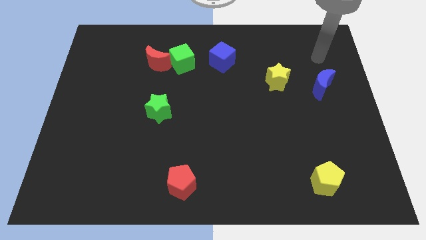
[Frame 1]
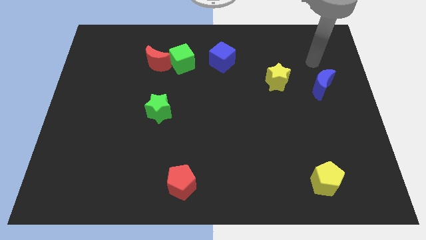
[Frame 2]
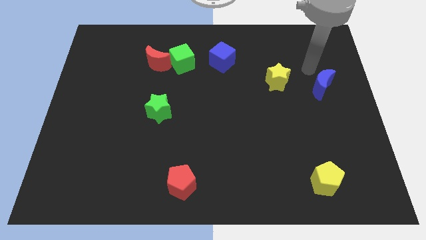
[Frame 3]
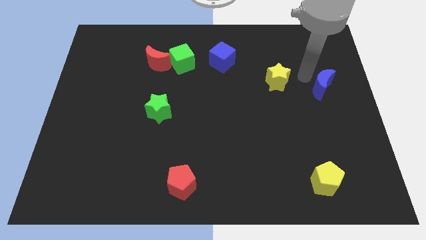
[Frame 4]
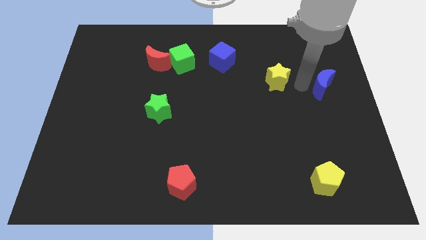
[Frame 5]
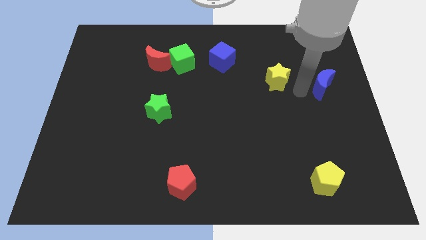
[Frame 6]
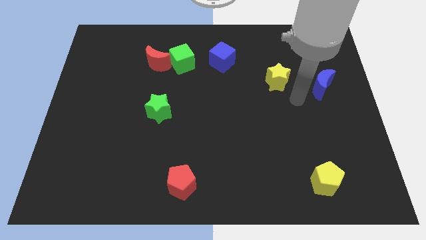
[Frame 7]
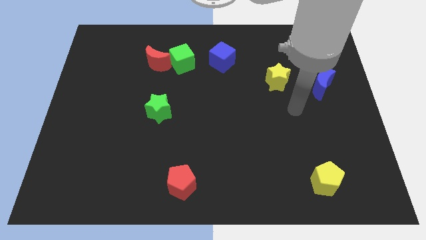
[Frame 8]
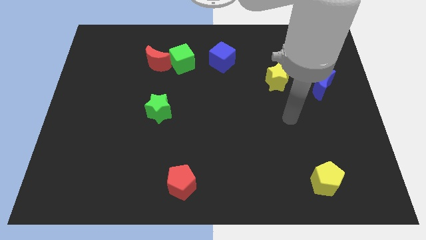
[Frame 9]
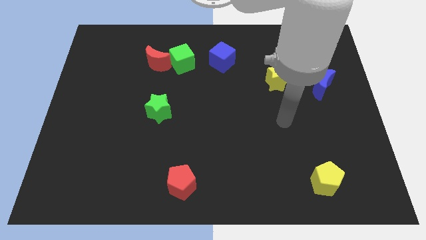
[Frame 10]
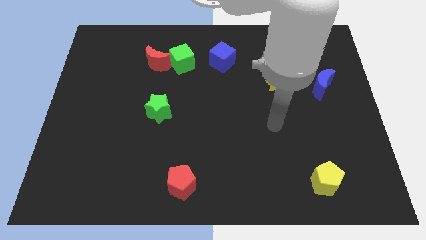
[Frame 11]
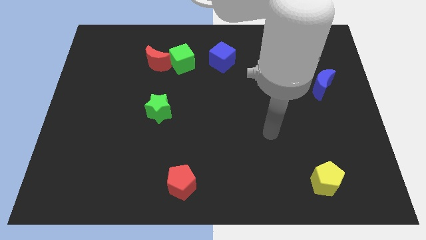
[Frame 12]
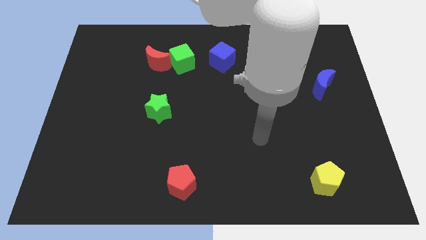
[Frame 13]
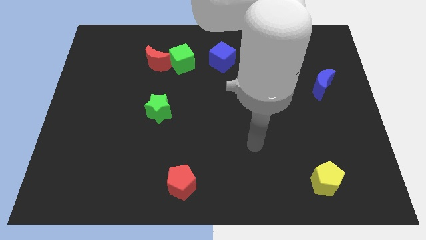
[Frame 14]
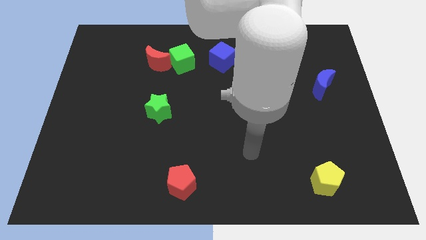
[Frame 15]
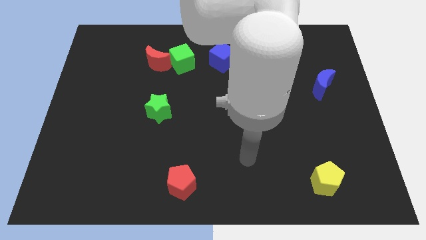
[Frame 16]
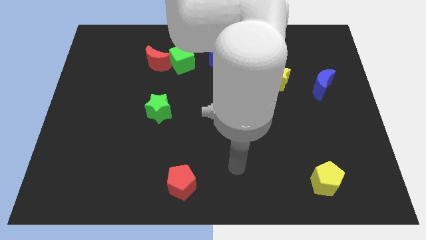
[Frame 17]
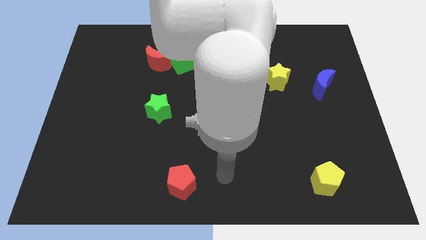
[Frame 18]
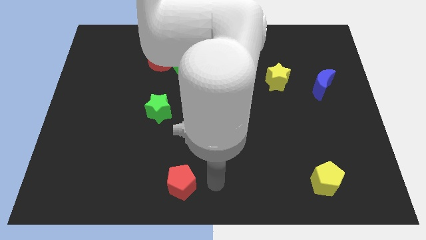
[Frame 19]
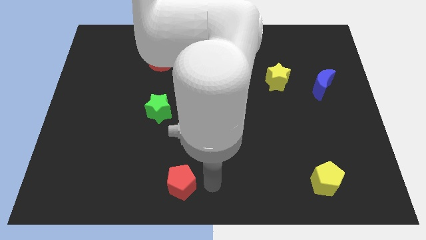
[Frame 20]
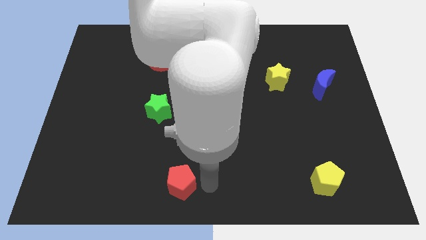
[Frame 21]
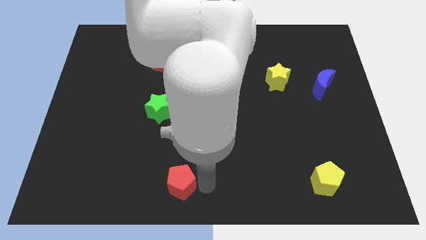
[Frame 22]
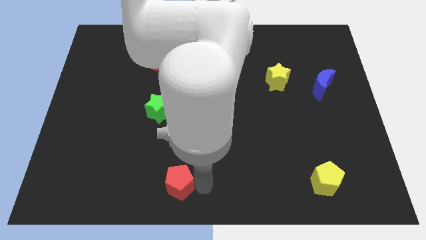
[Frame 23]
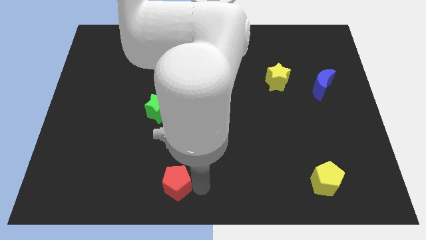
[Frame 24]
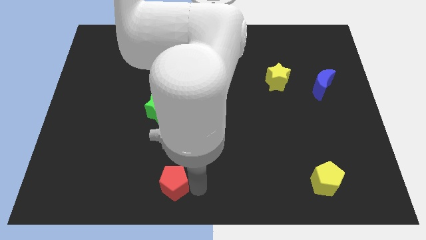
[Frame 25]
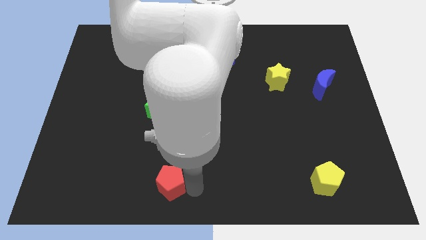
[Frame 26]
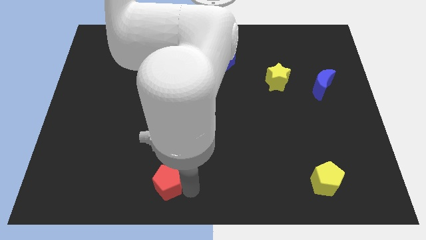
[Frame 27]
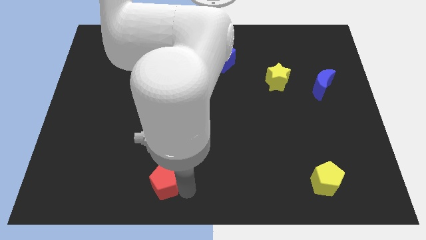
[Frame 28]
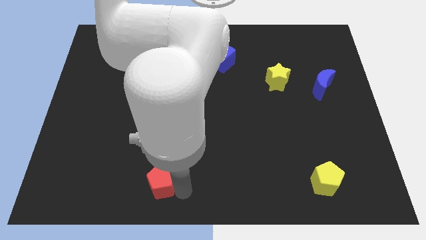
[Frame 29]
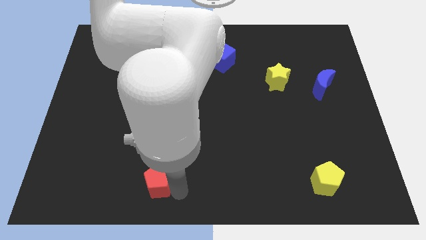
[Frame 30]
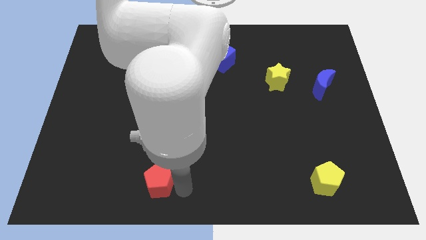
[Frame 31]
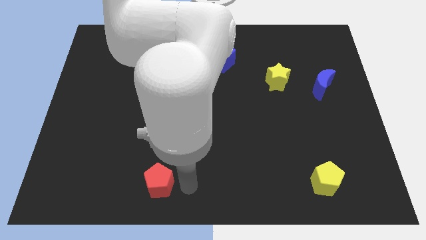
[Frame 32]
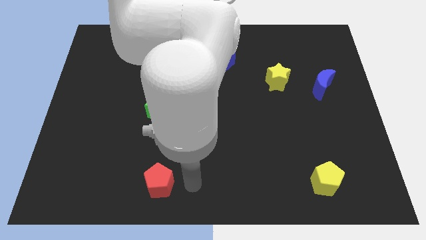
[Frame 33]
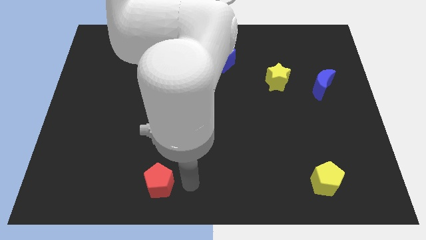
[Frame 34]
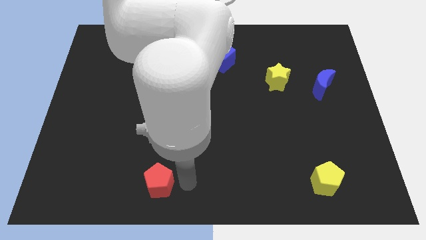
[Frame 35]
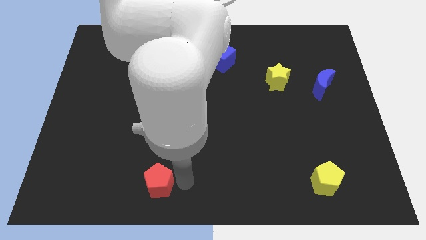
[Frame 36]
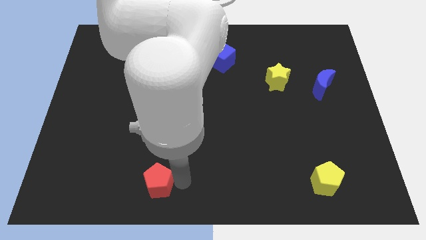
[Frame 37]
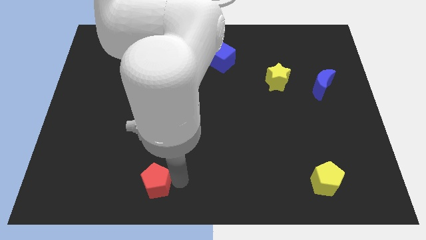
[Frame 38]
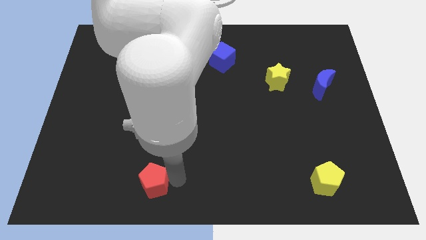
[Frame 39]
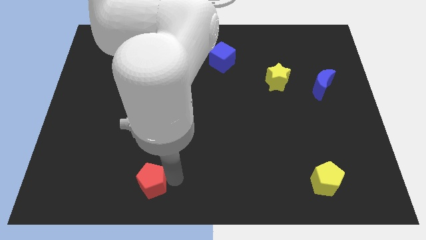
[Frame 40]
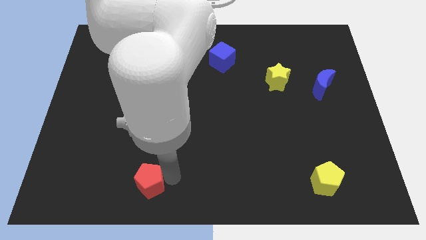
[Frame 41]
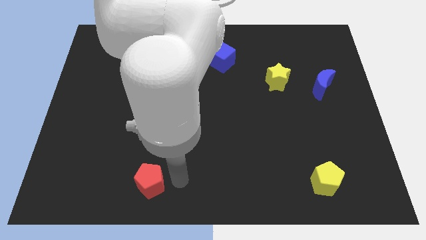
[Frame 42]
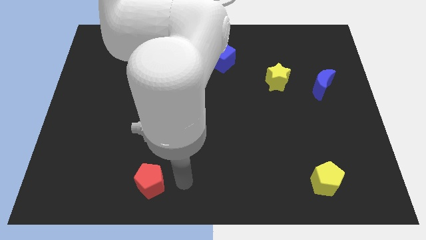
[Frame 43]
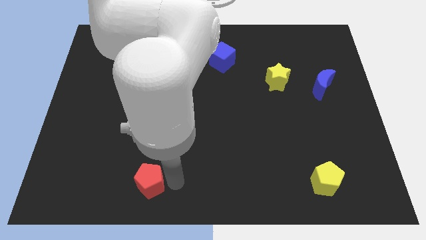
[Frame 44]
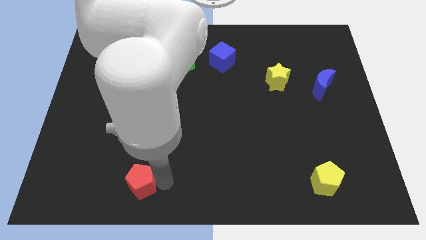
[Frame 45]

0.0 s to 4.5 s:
slightly move the red pentagon left

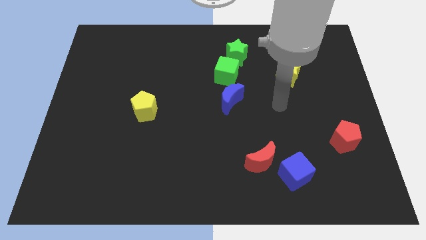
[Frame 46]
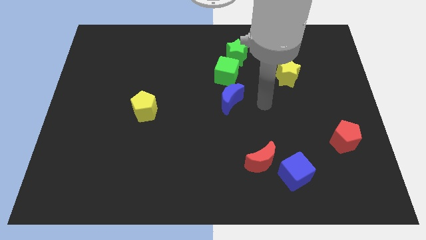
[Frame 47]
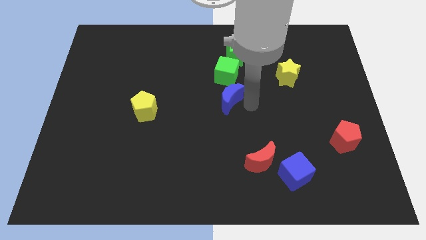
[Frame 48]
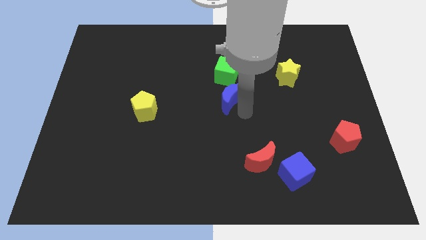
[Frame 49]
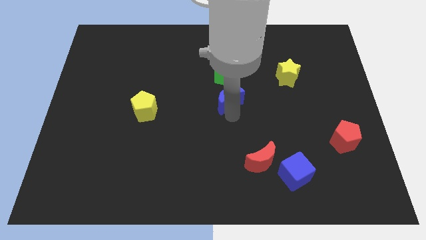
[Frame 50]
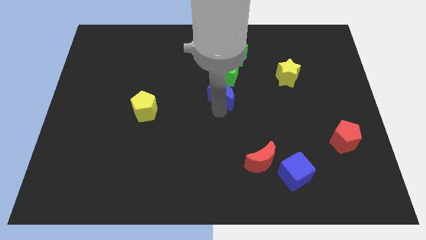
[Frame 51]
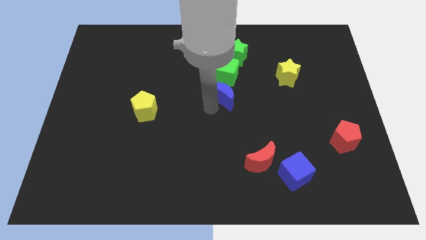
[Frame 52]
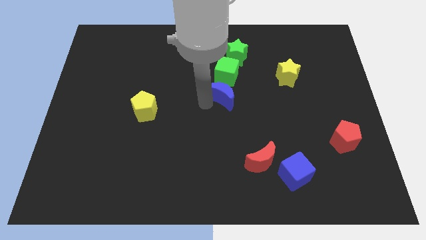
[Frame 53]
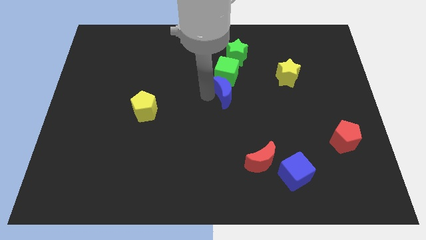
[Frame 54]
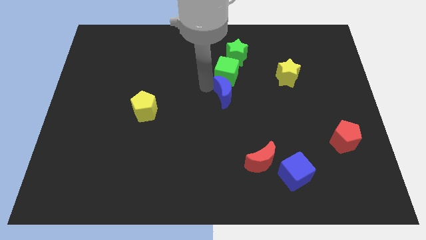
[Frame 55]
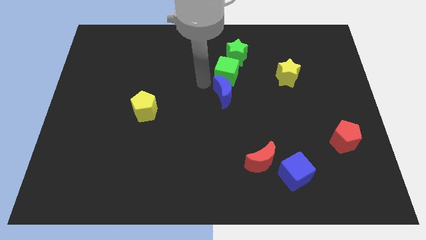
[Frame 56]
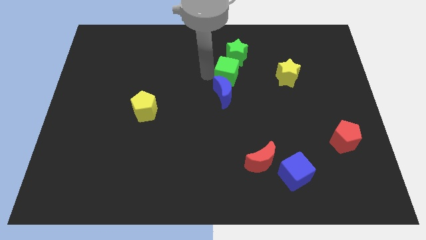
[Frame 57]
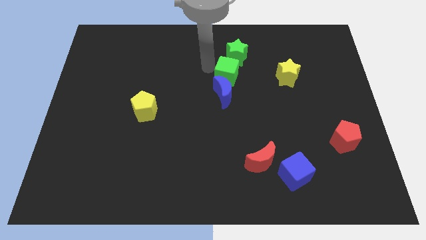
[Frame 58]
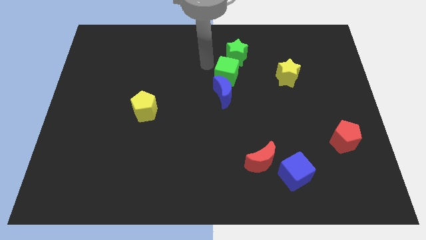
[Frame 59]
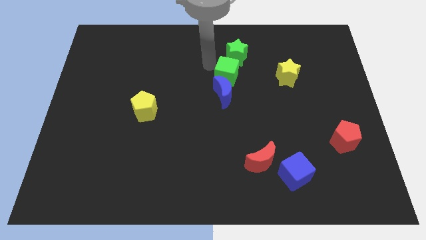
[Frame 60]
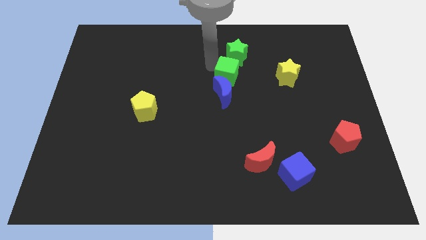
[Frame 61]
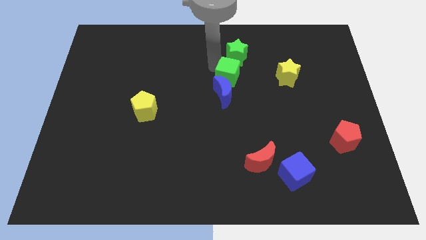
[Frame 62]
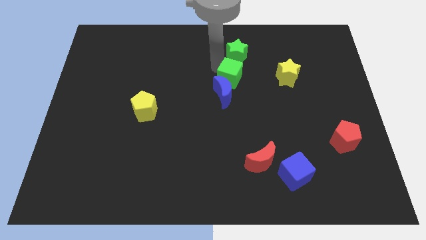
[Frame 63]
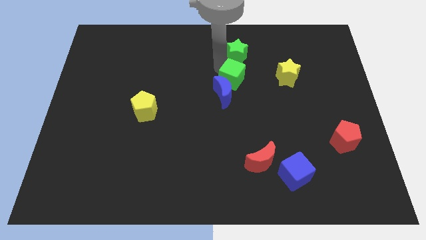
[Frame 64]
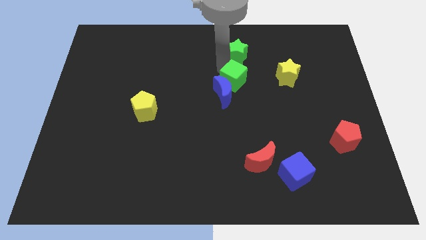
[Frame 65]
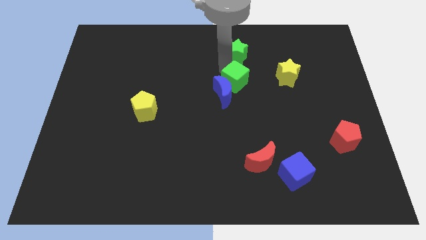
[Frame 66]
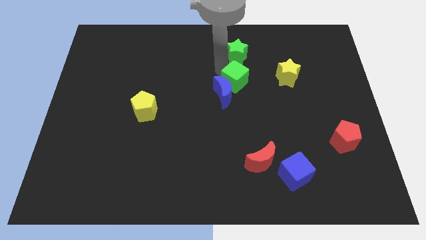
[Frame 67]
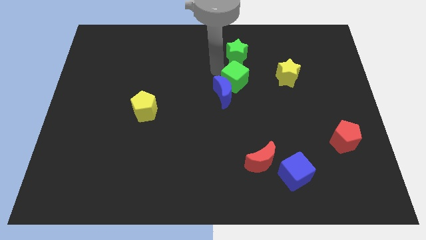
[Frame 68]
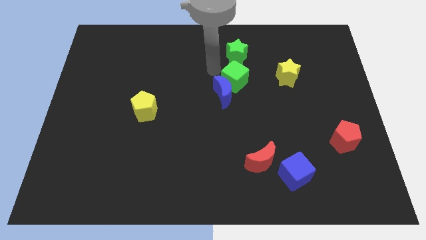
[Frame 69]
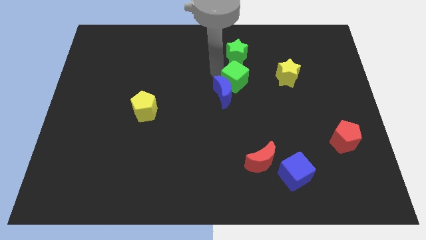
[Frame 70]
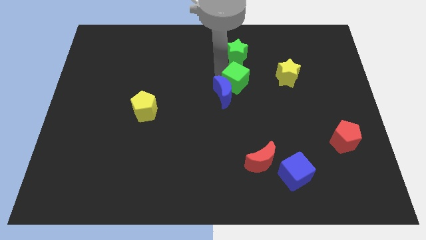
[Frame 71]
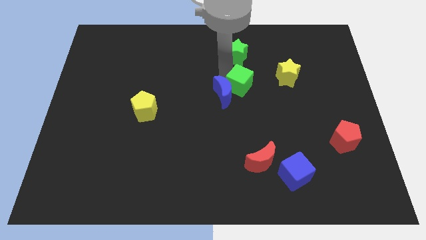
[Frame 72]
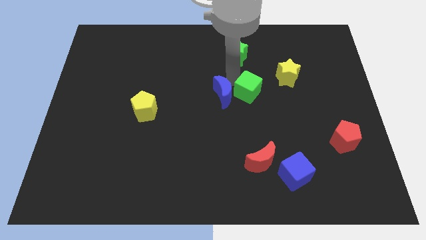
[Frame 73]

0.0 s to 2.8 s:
slightly slide the green cube downwards and right

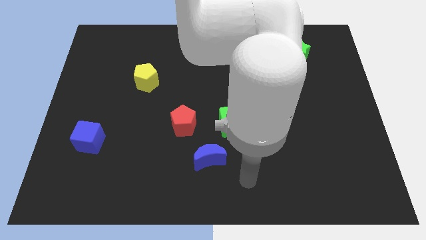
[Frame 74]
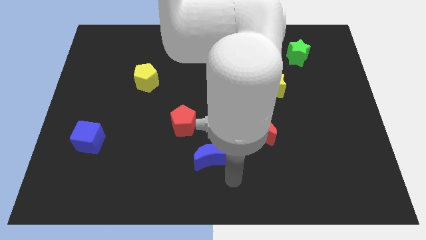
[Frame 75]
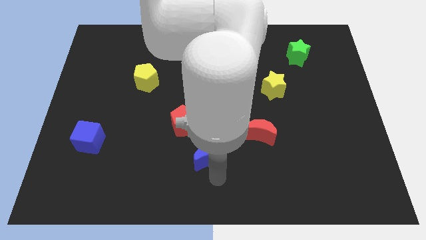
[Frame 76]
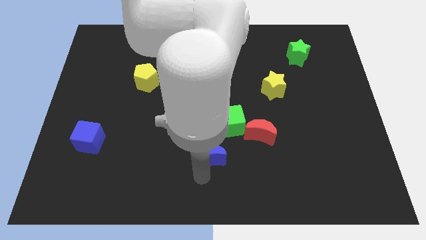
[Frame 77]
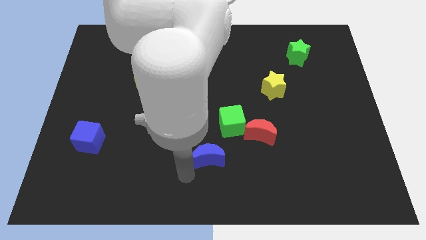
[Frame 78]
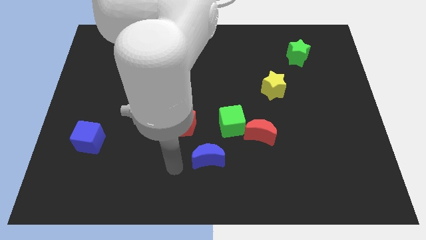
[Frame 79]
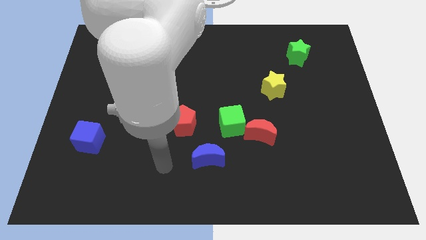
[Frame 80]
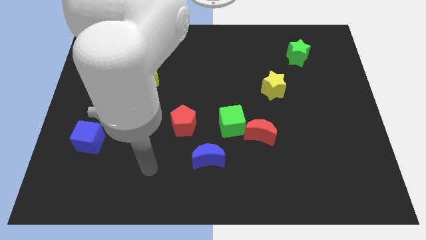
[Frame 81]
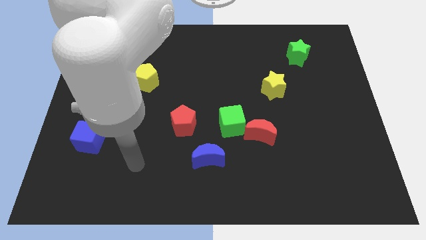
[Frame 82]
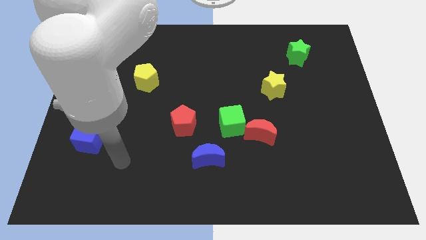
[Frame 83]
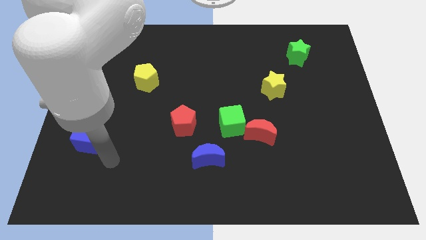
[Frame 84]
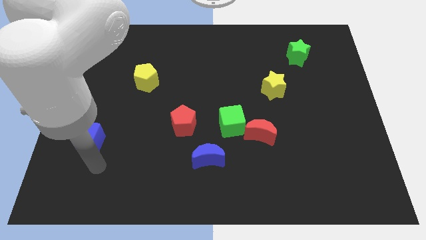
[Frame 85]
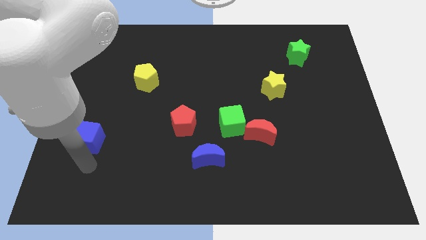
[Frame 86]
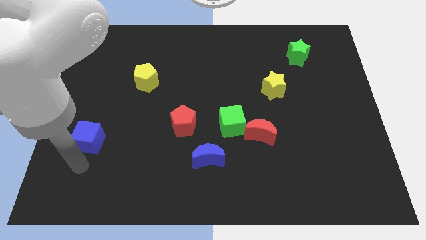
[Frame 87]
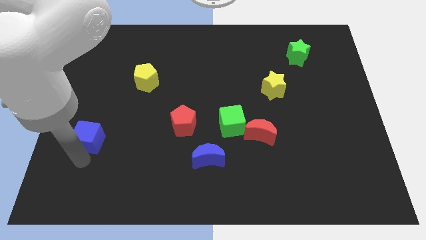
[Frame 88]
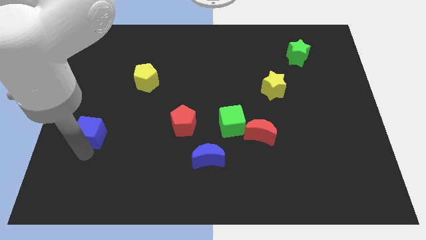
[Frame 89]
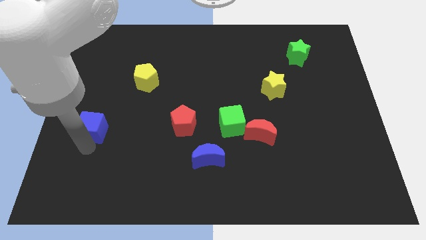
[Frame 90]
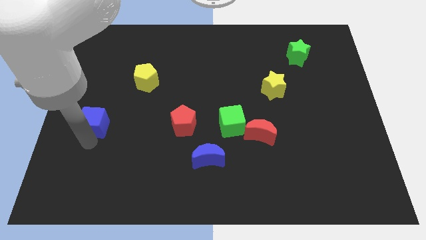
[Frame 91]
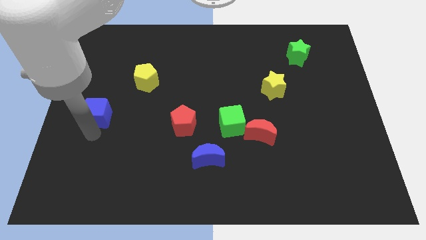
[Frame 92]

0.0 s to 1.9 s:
slightly push the blue cube up
